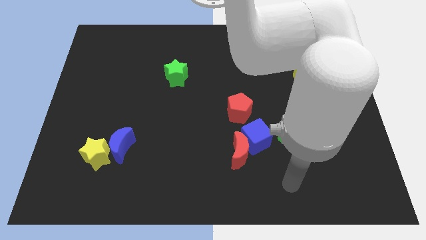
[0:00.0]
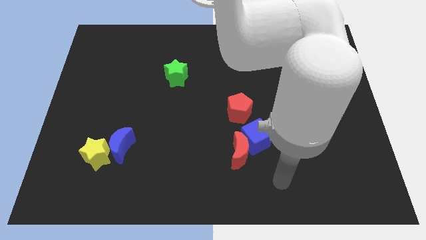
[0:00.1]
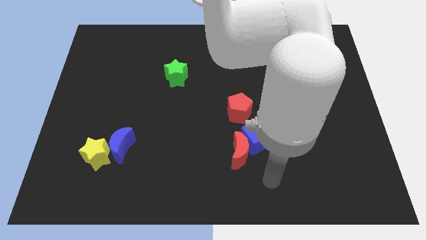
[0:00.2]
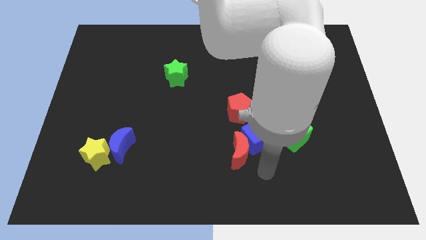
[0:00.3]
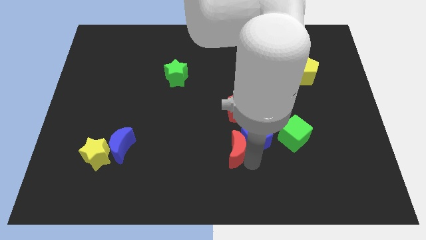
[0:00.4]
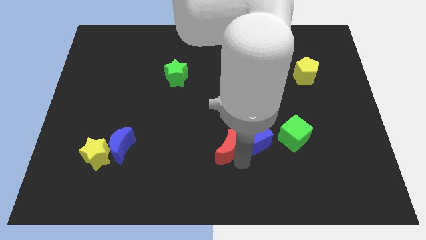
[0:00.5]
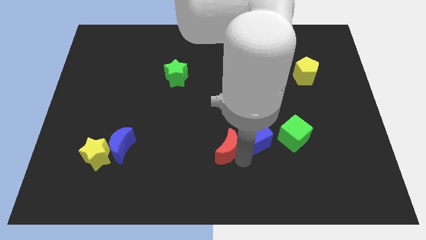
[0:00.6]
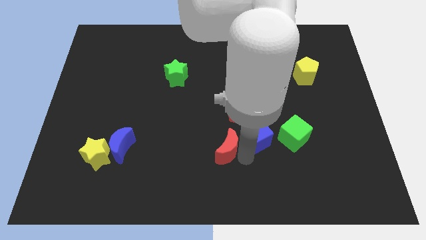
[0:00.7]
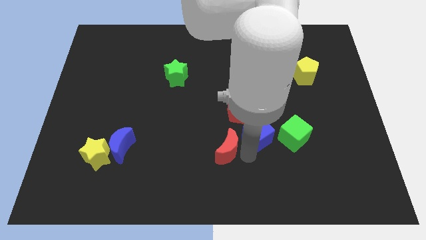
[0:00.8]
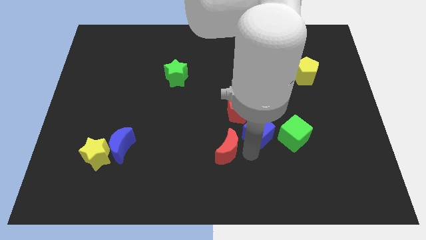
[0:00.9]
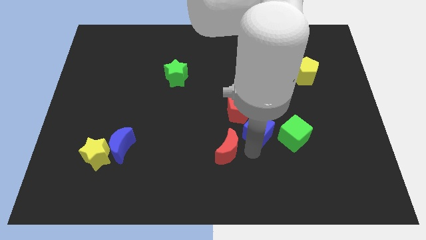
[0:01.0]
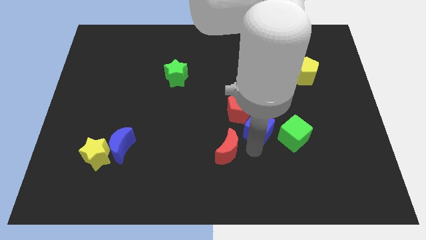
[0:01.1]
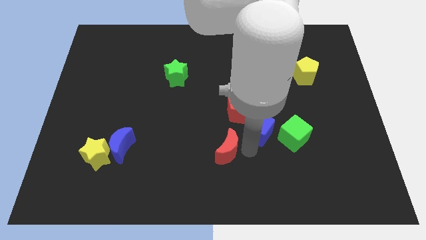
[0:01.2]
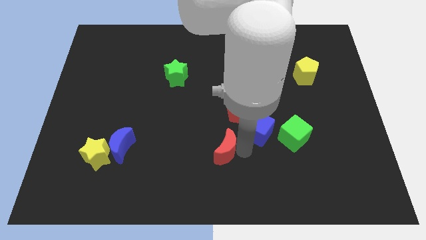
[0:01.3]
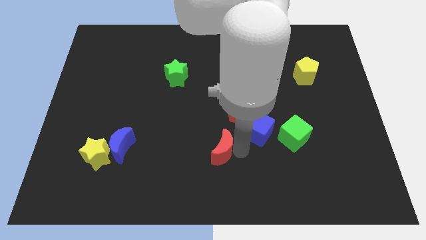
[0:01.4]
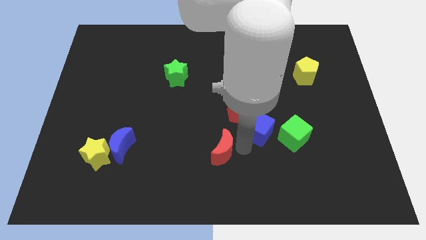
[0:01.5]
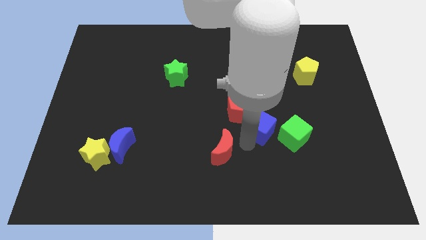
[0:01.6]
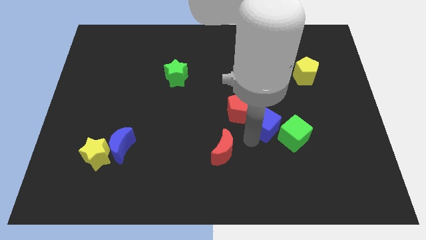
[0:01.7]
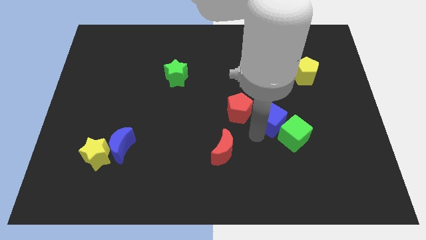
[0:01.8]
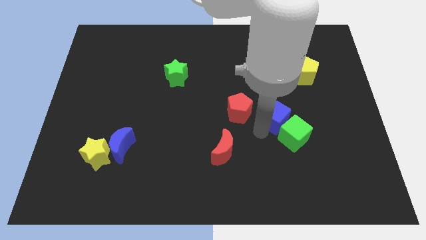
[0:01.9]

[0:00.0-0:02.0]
push the blue cube slightly diagonally upwards and to the right

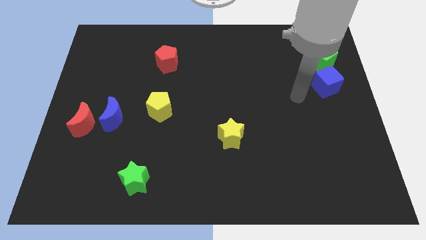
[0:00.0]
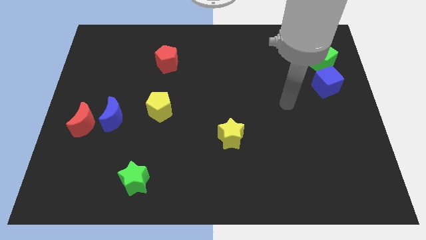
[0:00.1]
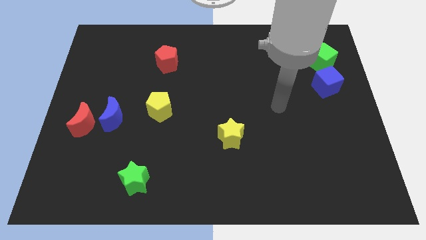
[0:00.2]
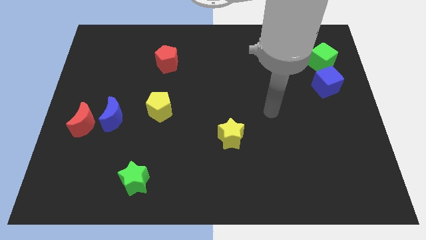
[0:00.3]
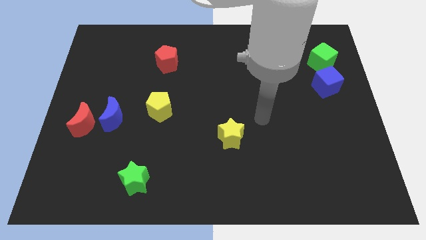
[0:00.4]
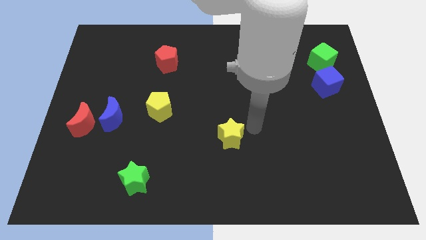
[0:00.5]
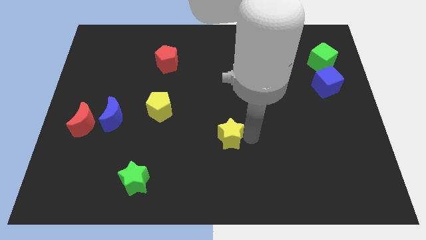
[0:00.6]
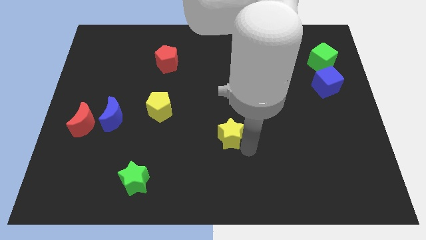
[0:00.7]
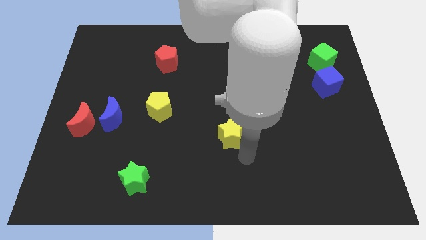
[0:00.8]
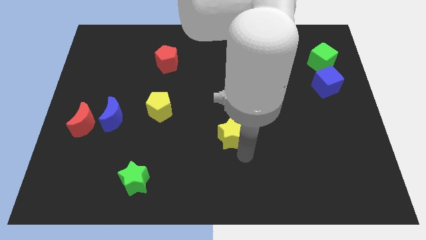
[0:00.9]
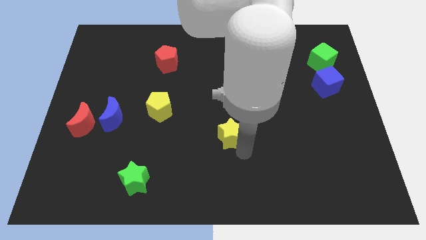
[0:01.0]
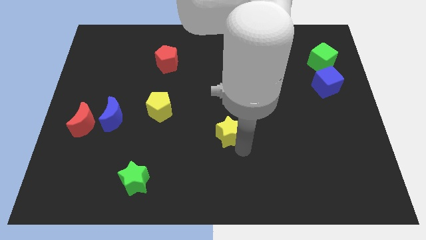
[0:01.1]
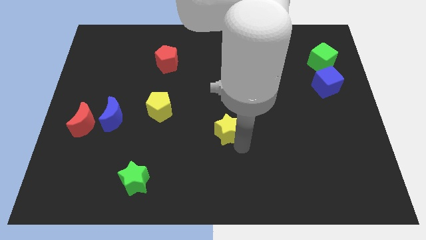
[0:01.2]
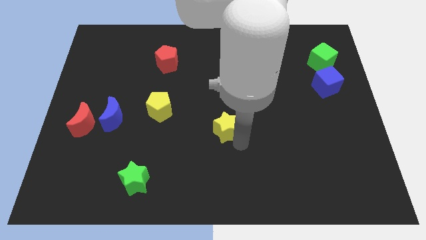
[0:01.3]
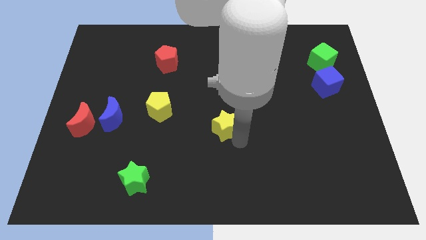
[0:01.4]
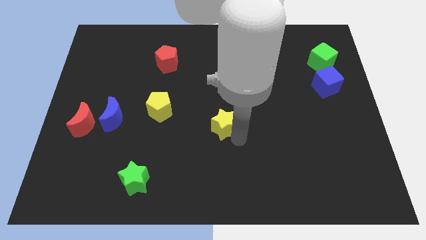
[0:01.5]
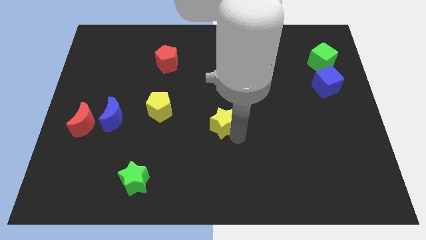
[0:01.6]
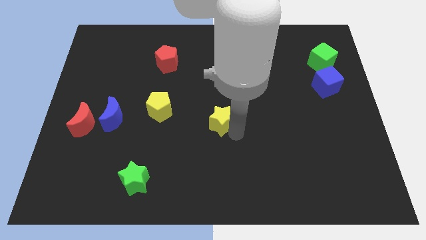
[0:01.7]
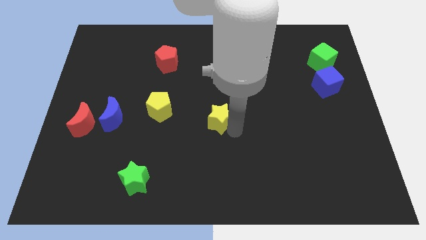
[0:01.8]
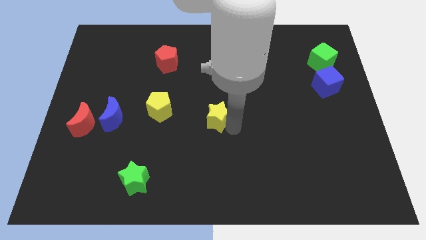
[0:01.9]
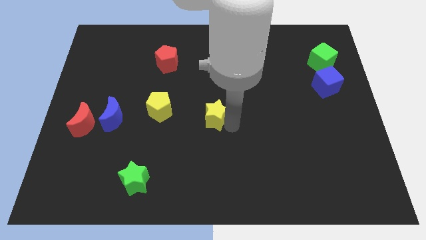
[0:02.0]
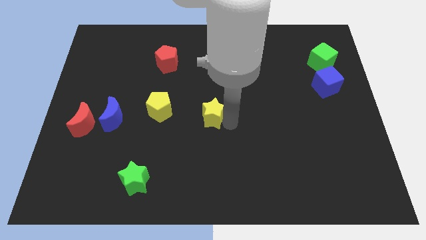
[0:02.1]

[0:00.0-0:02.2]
push the yellow star a little up and to the left

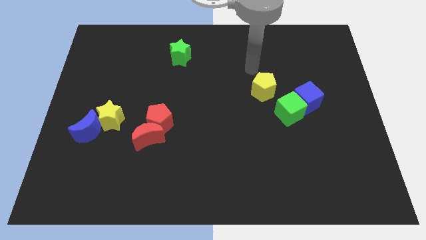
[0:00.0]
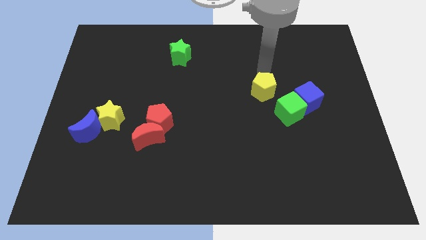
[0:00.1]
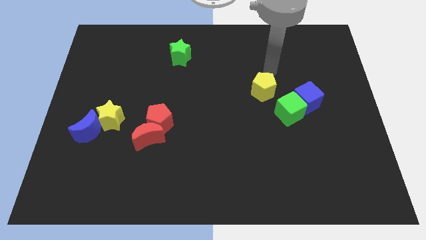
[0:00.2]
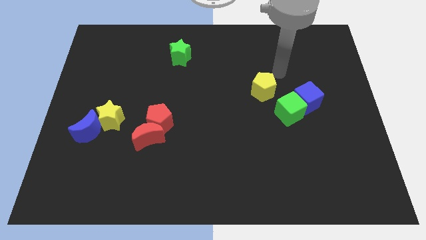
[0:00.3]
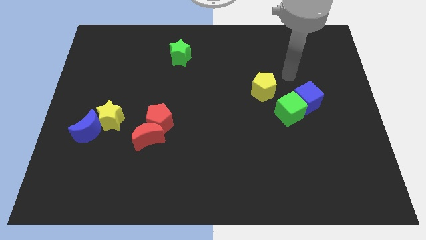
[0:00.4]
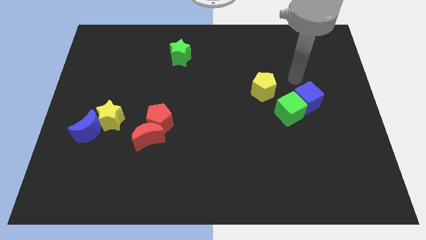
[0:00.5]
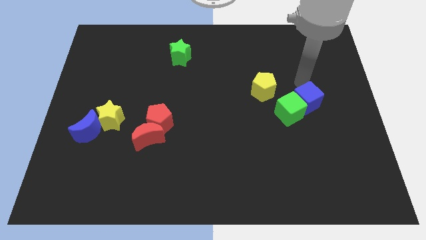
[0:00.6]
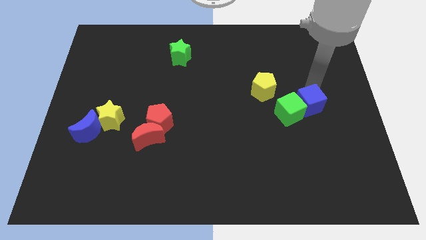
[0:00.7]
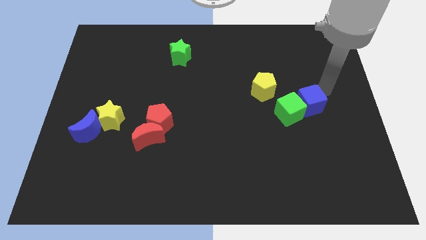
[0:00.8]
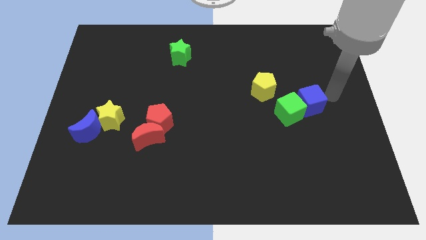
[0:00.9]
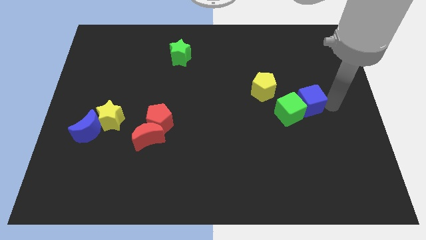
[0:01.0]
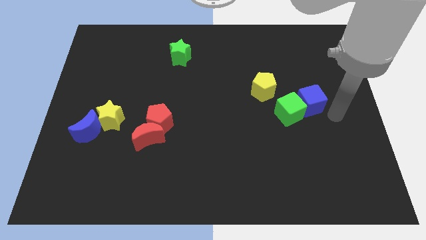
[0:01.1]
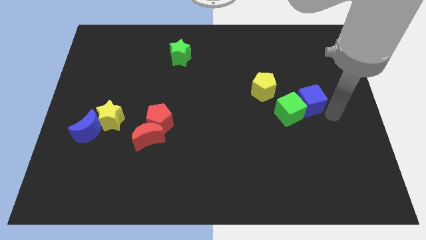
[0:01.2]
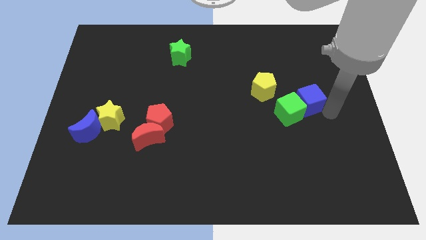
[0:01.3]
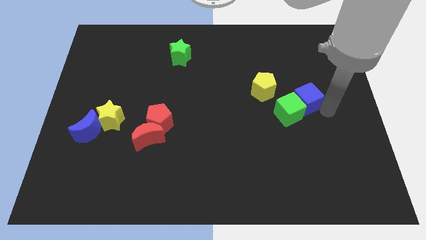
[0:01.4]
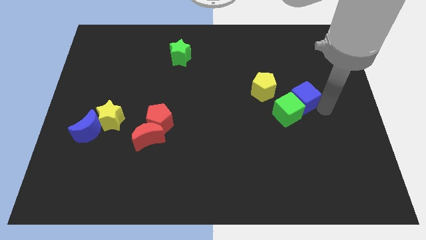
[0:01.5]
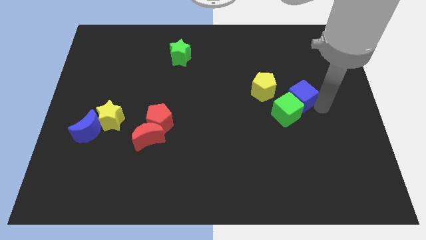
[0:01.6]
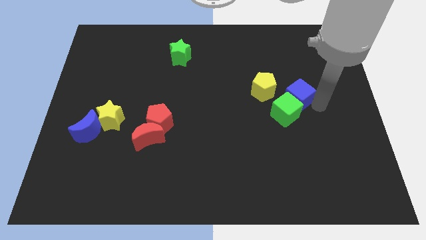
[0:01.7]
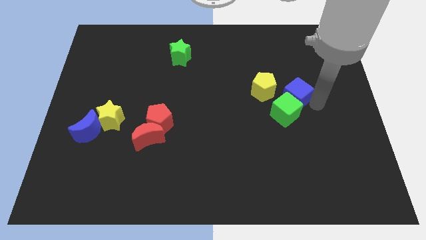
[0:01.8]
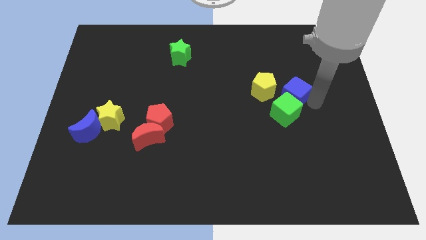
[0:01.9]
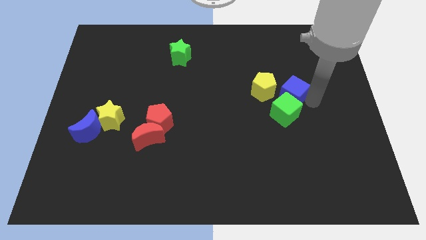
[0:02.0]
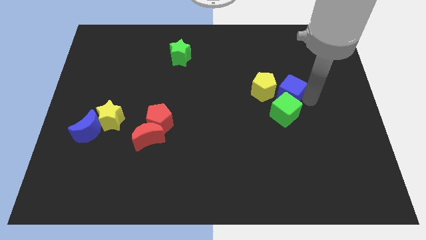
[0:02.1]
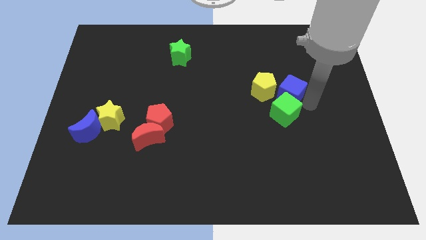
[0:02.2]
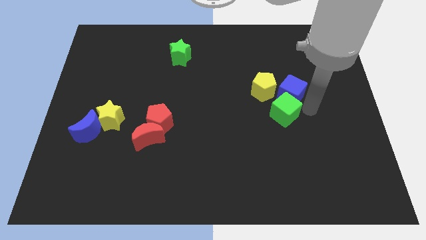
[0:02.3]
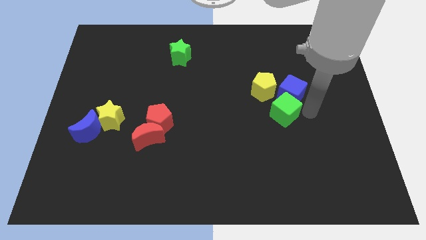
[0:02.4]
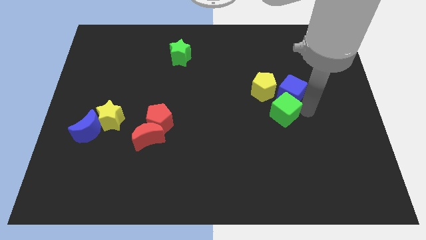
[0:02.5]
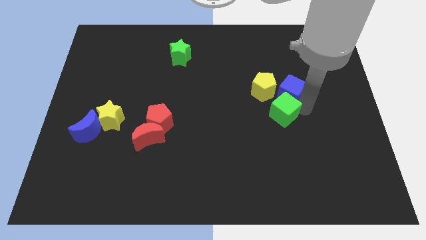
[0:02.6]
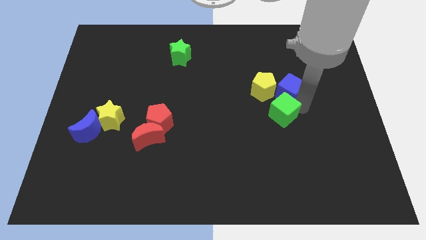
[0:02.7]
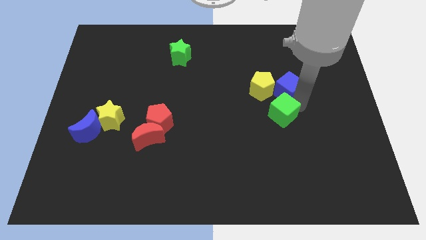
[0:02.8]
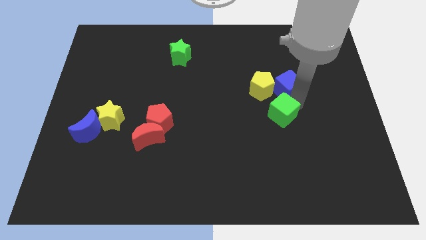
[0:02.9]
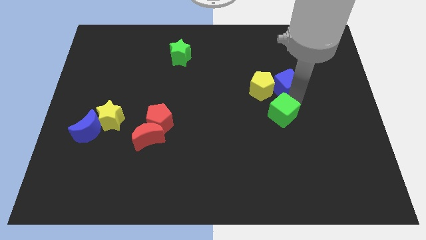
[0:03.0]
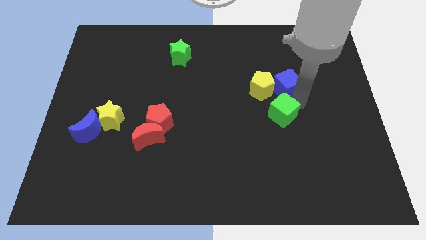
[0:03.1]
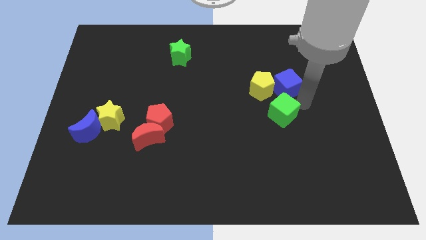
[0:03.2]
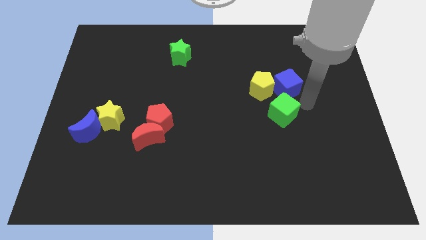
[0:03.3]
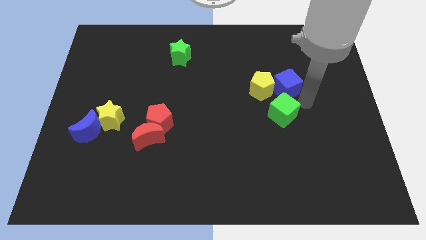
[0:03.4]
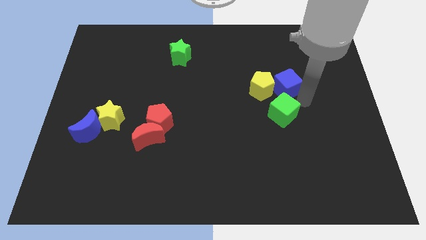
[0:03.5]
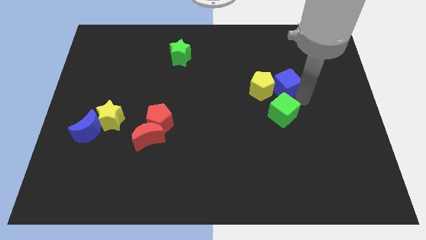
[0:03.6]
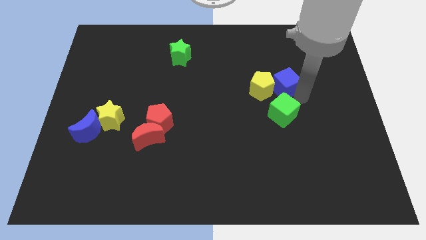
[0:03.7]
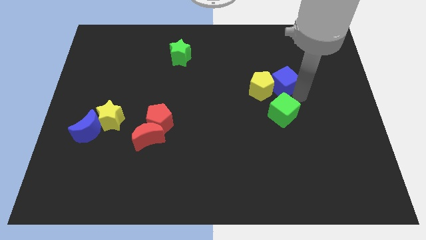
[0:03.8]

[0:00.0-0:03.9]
push the blue cube up and to the left diagonally somewhat

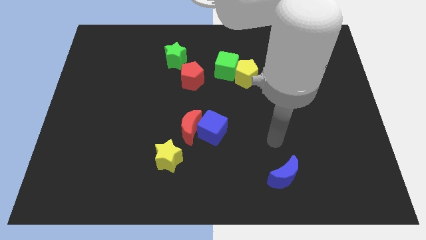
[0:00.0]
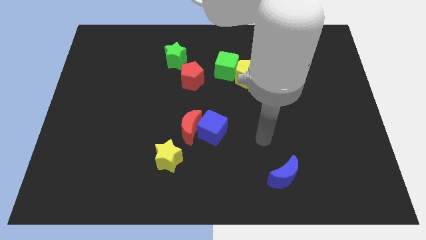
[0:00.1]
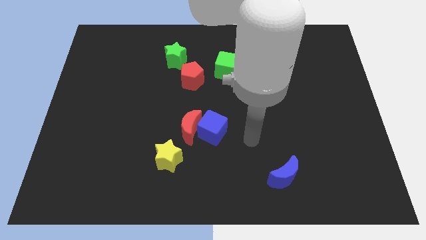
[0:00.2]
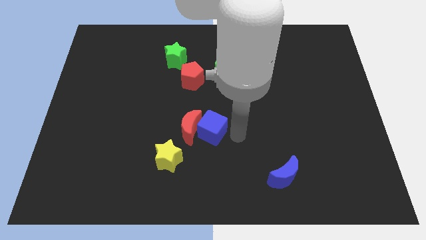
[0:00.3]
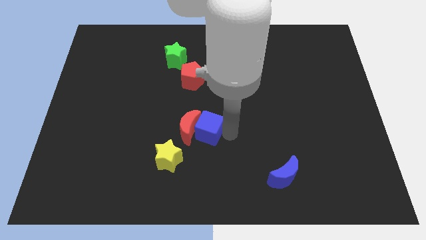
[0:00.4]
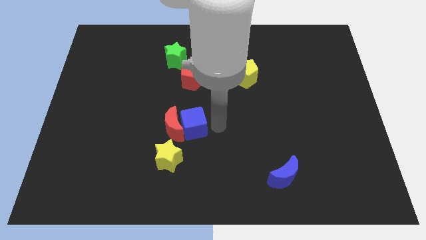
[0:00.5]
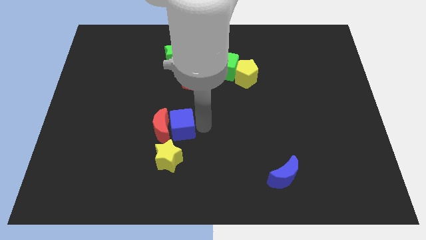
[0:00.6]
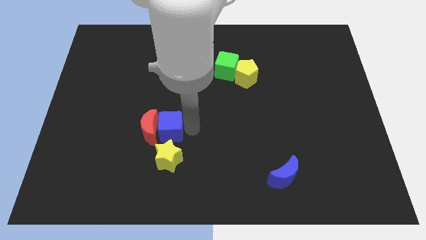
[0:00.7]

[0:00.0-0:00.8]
move the red moon slightly to the left
